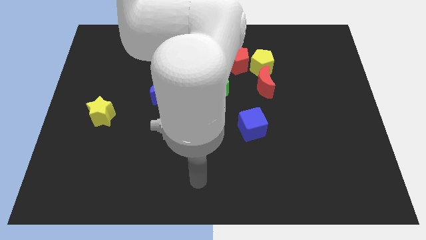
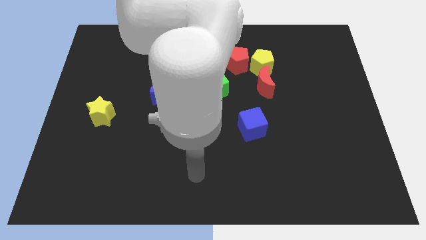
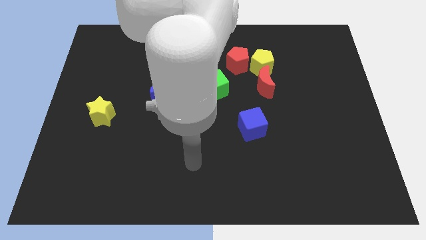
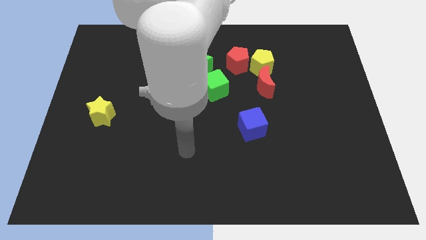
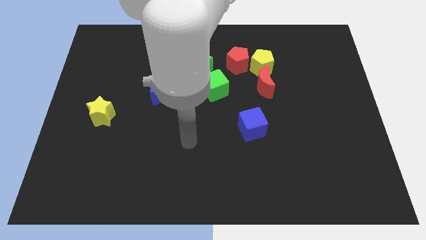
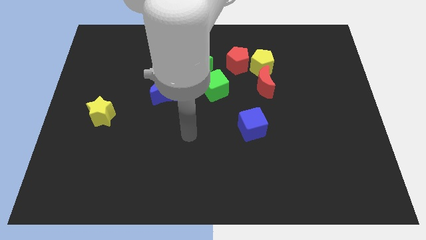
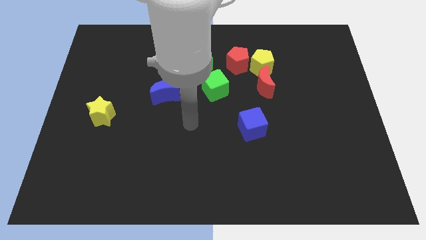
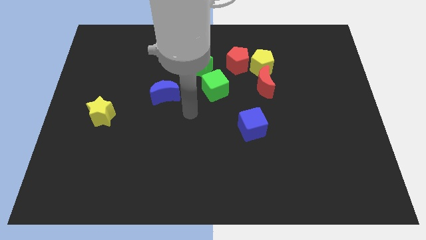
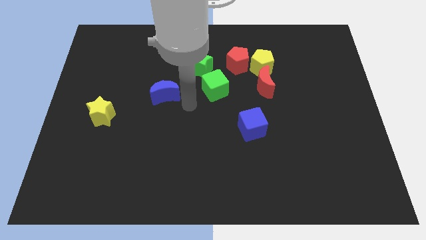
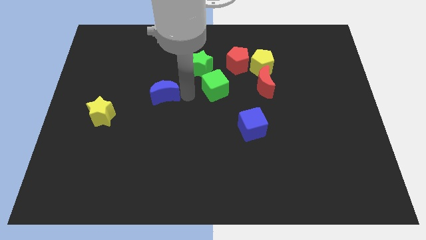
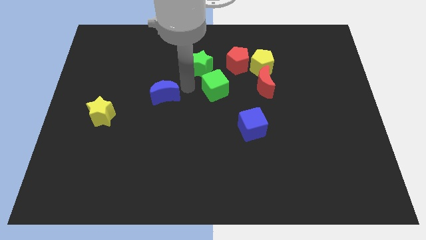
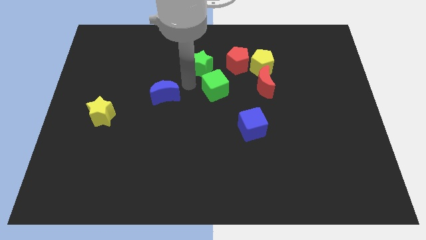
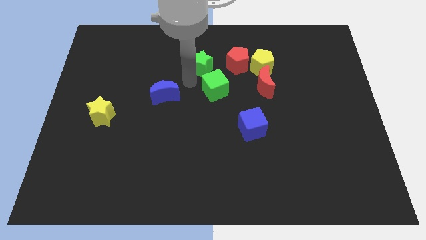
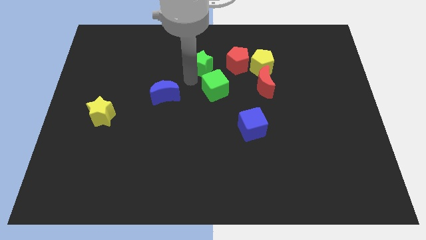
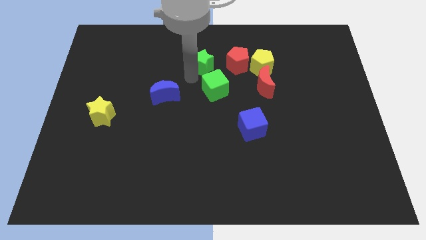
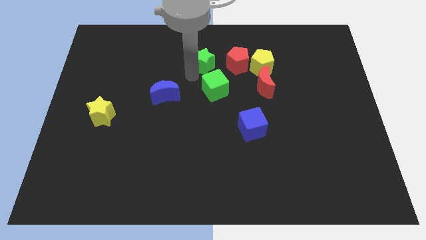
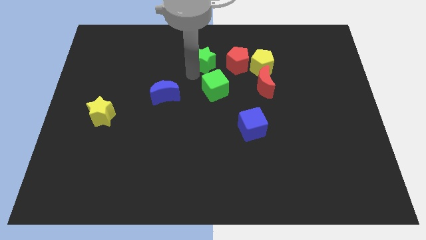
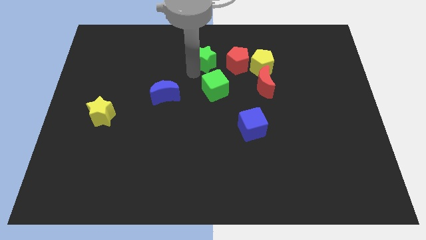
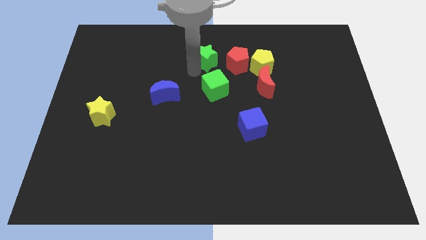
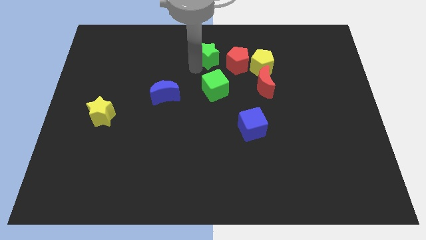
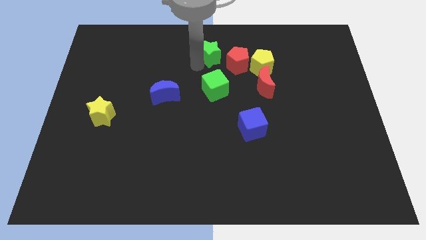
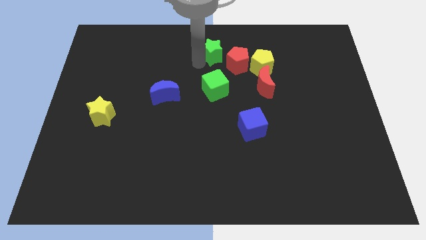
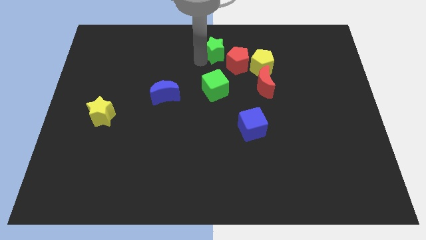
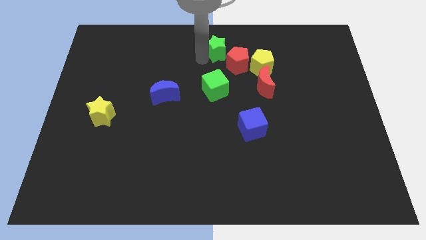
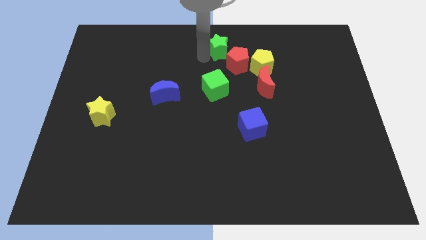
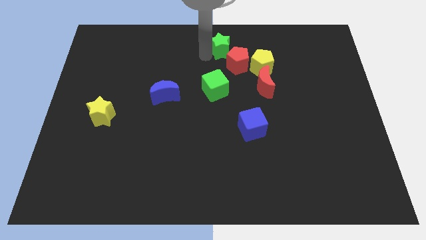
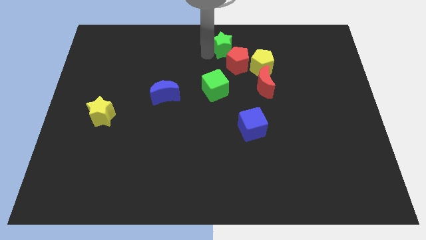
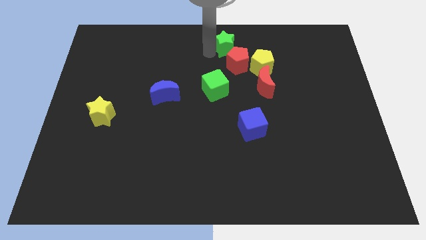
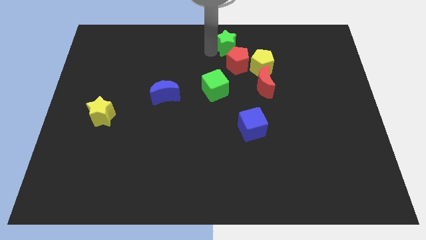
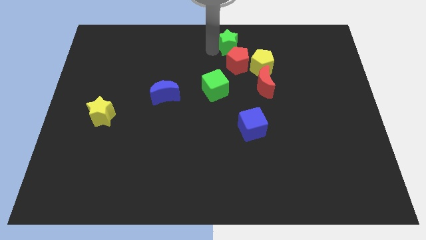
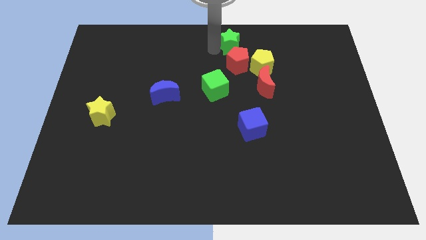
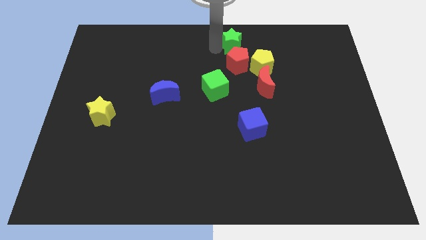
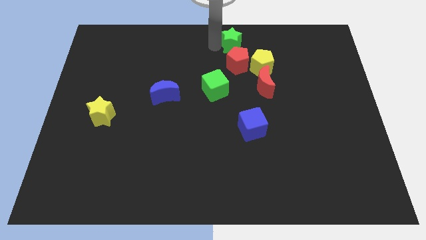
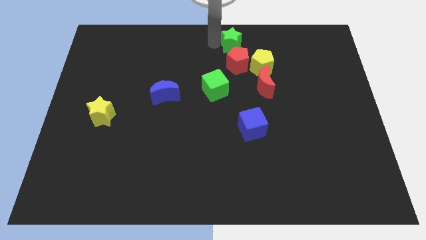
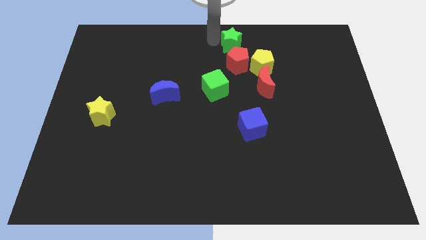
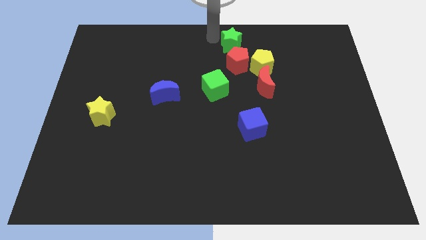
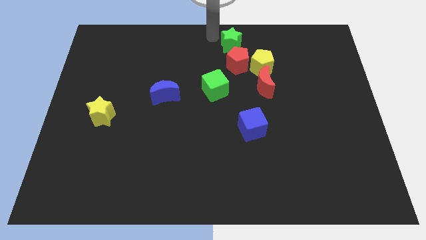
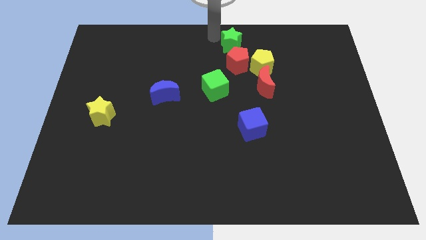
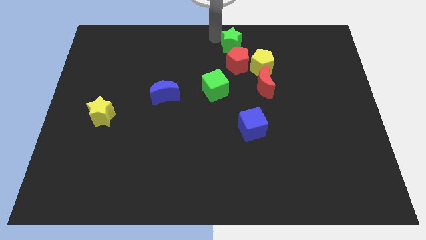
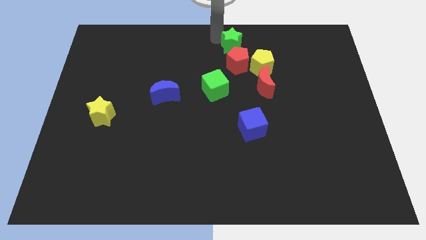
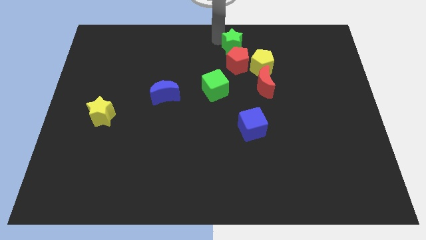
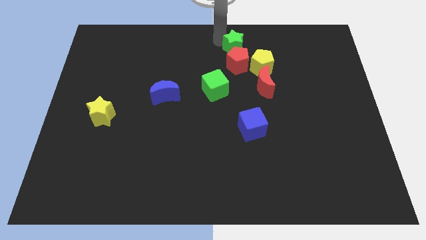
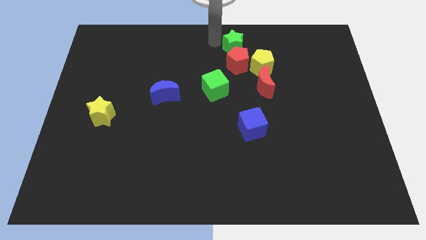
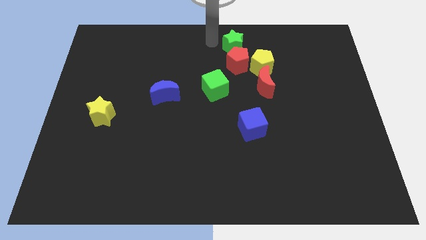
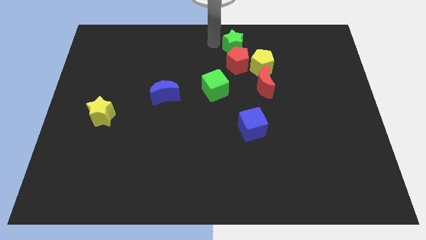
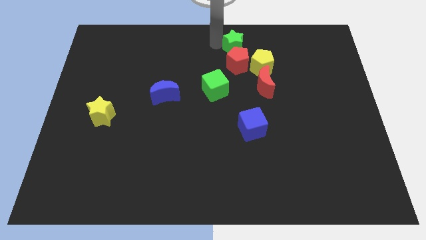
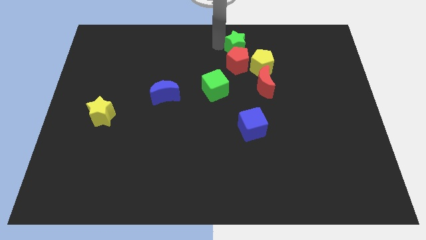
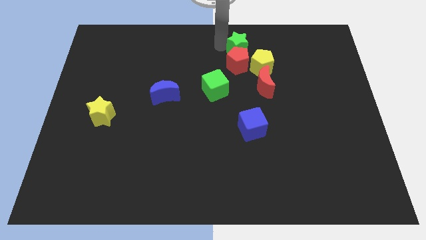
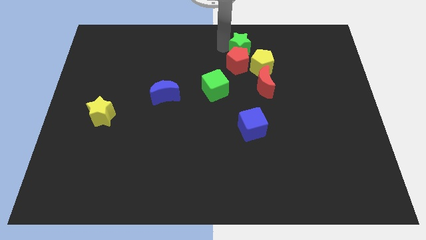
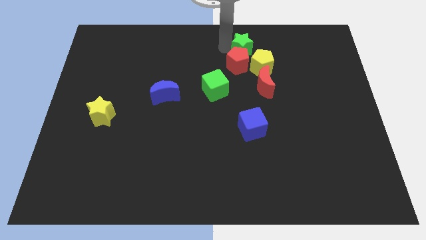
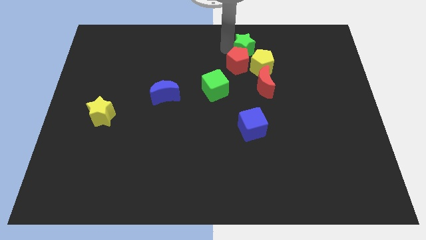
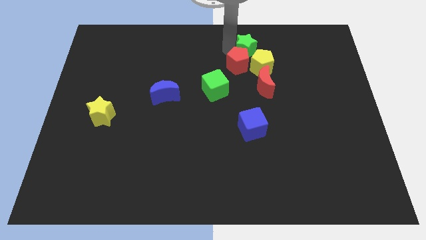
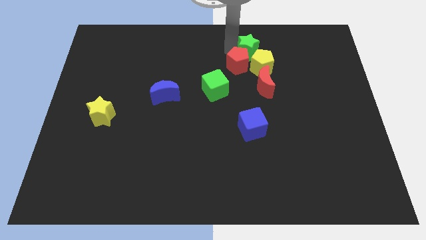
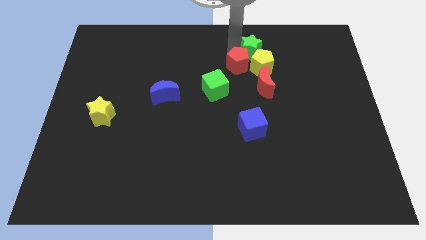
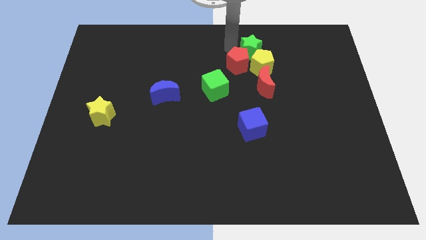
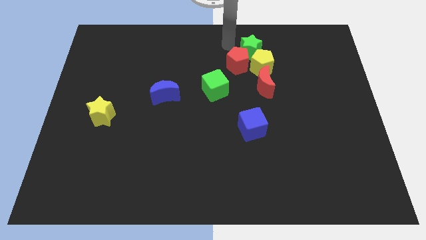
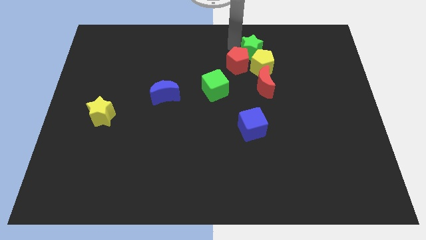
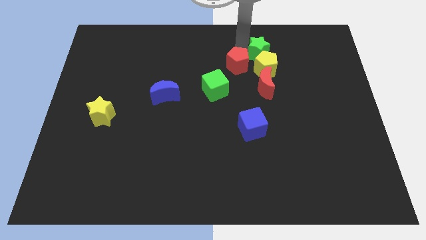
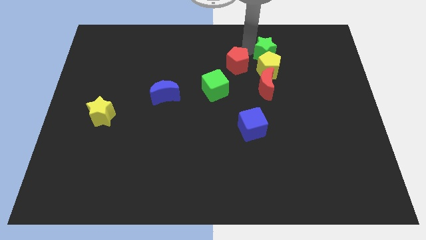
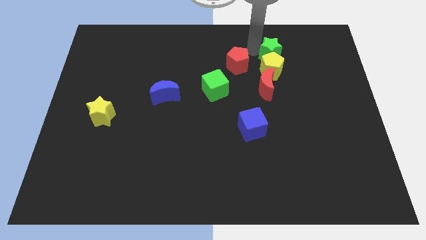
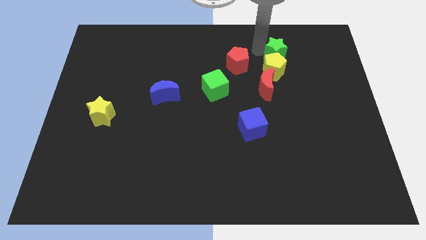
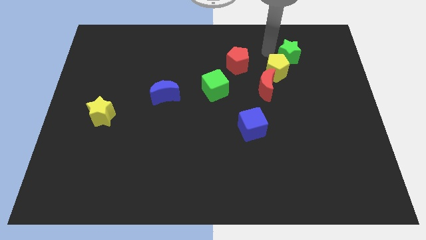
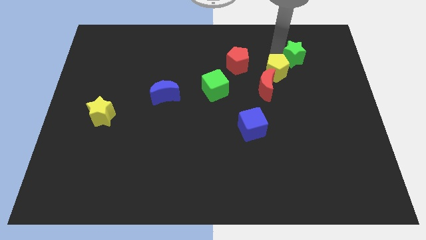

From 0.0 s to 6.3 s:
slide the green star to the right of the yellow pentagon
